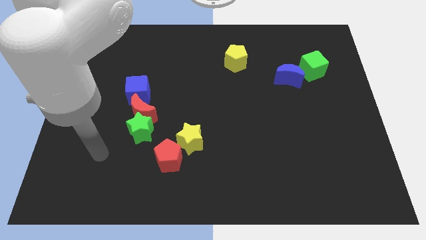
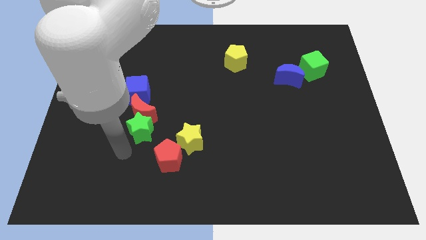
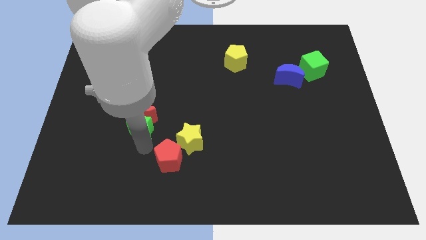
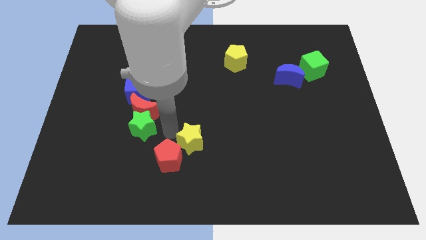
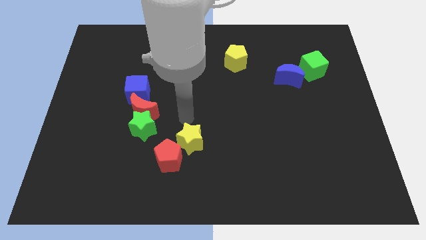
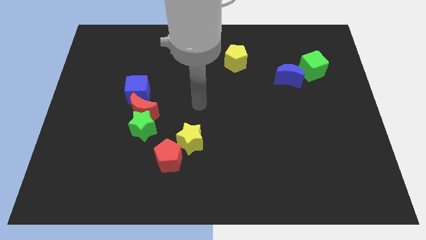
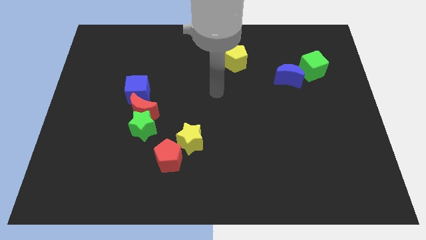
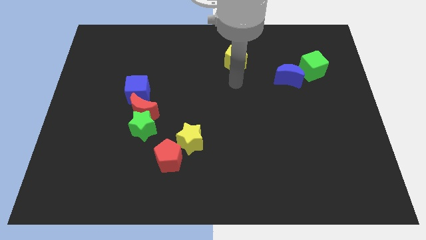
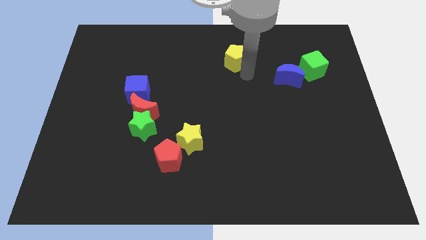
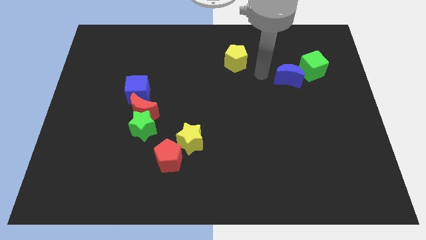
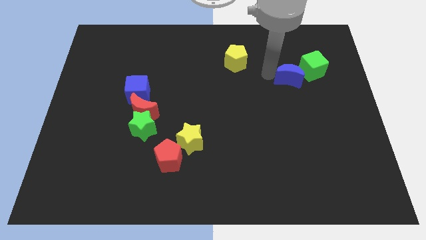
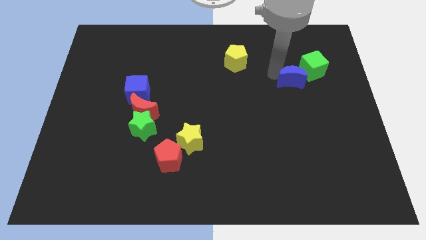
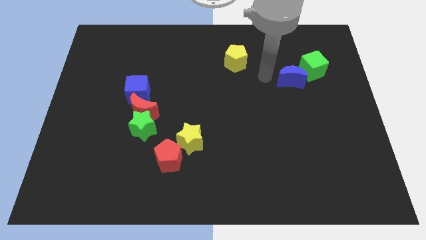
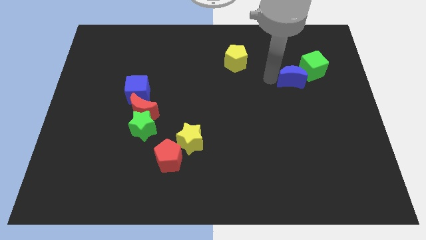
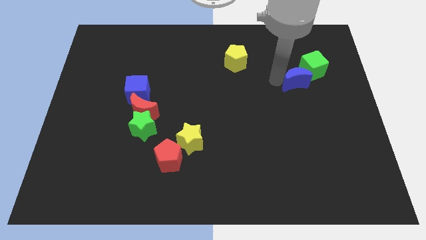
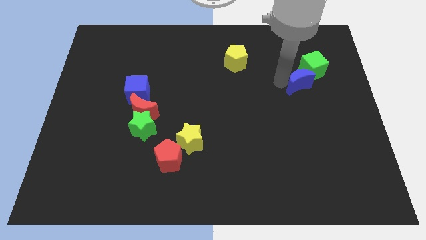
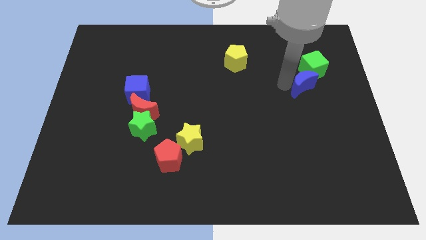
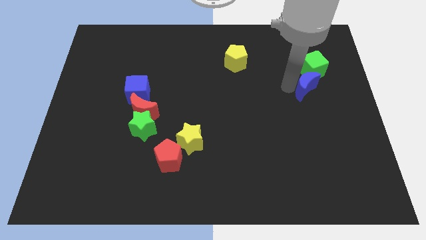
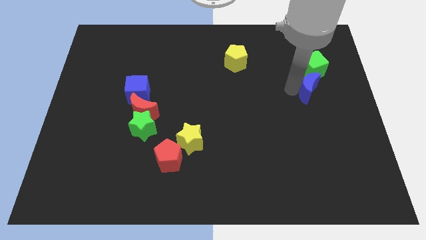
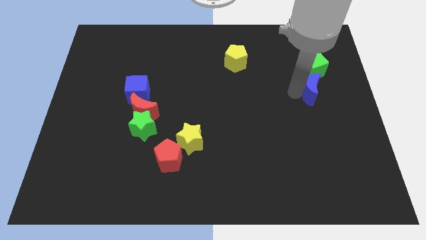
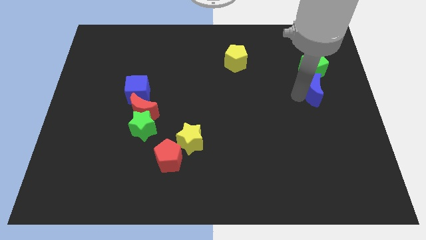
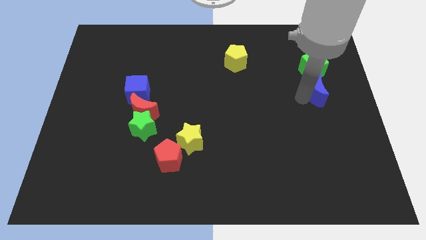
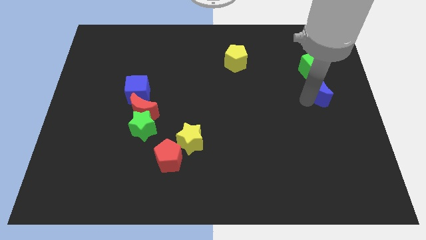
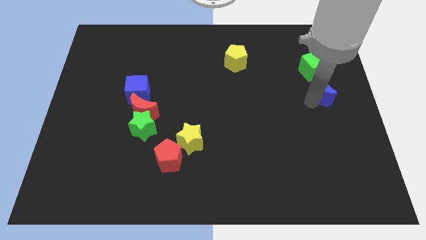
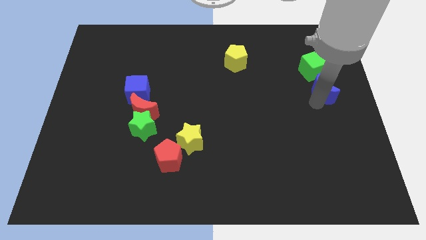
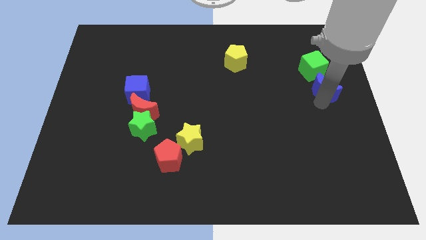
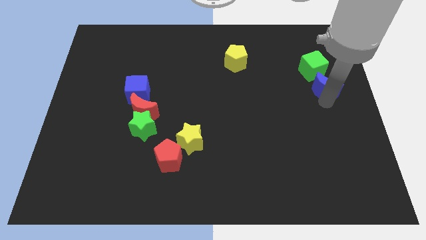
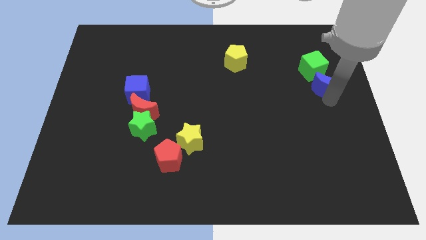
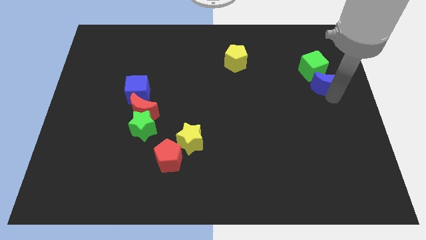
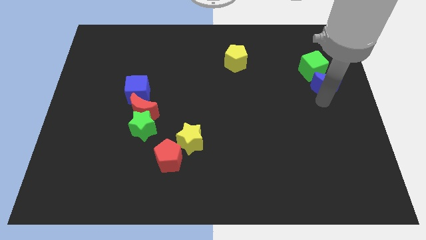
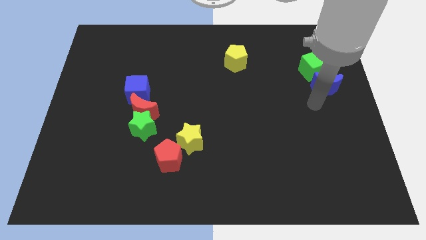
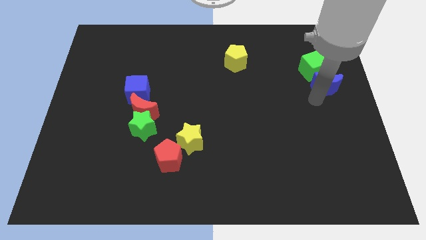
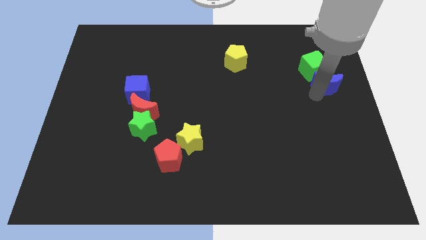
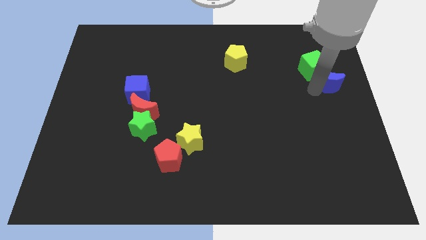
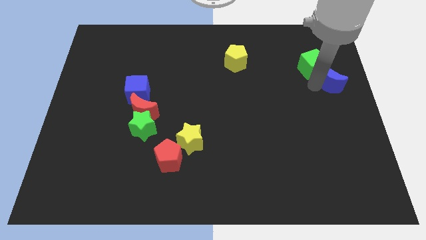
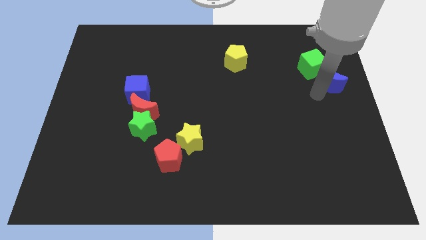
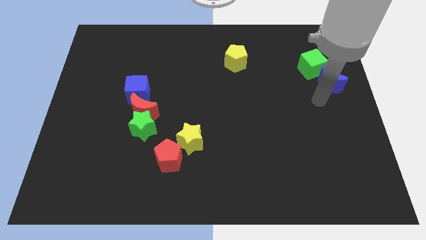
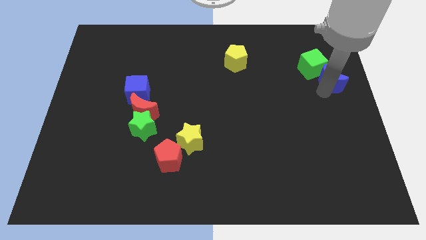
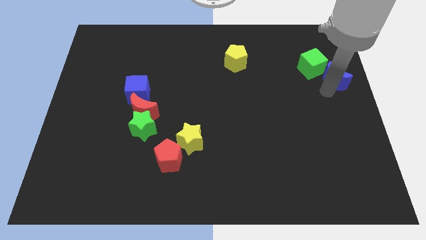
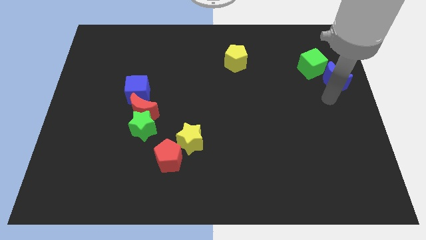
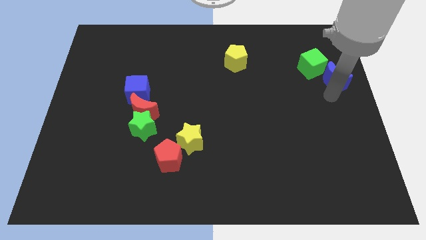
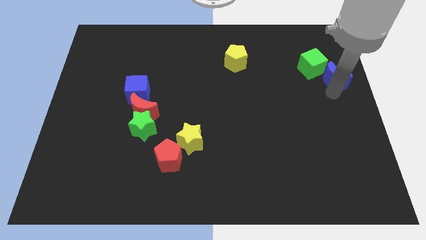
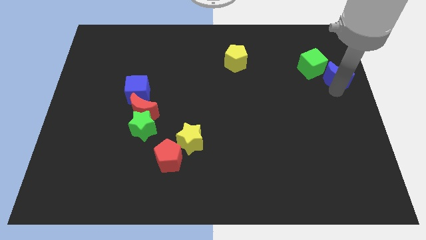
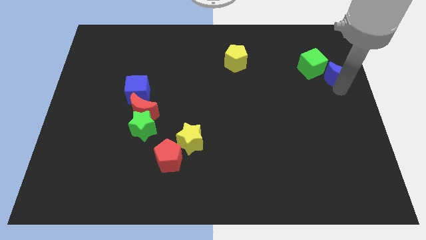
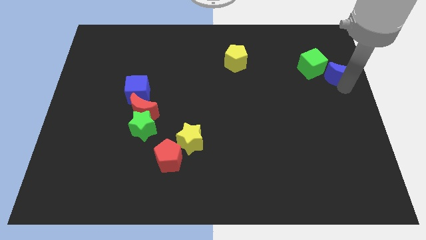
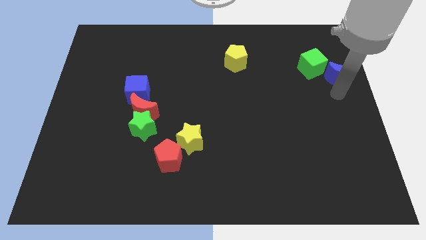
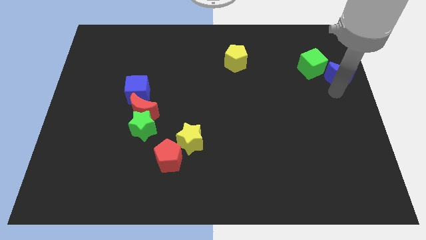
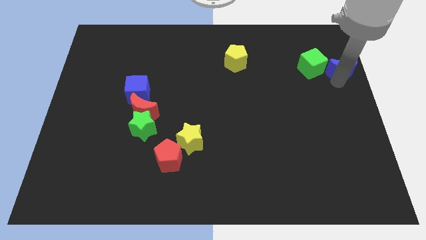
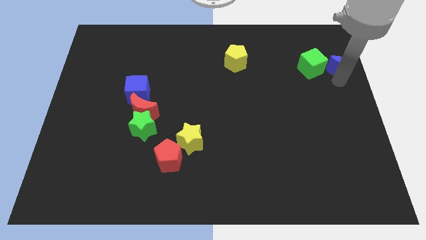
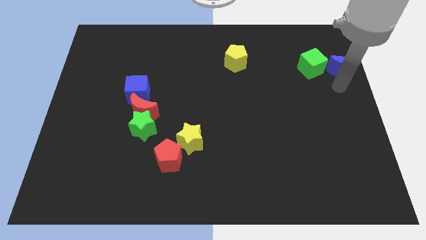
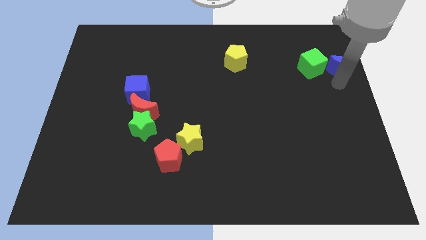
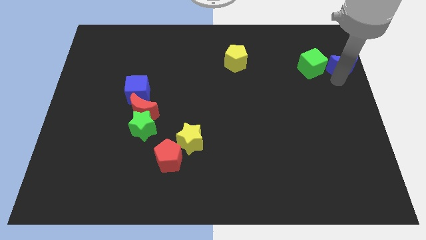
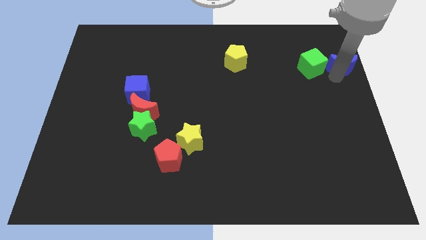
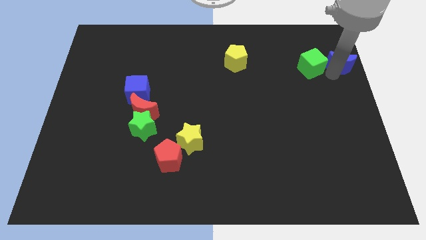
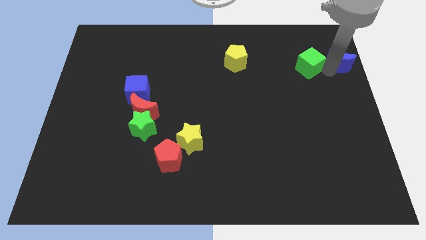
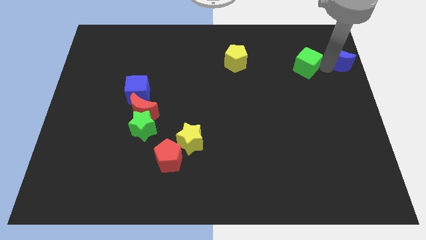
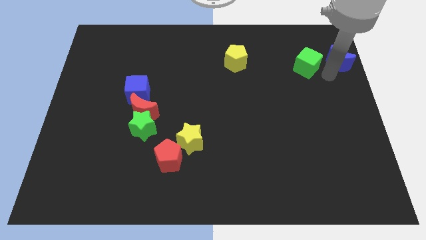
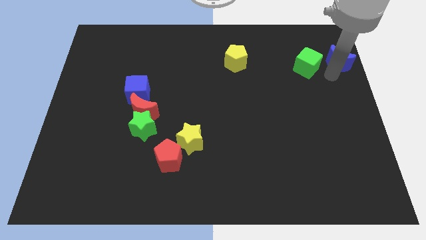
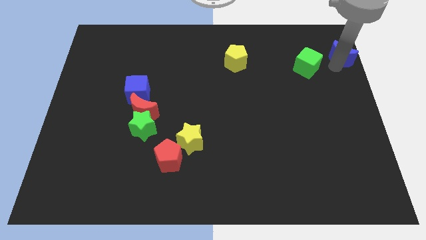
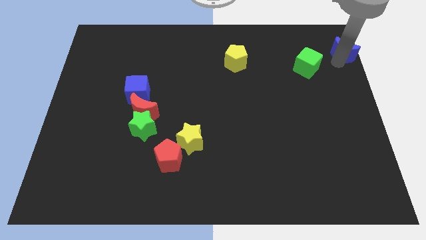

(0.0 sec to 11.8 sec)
push the blue moon to the top right
